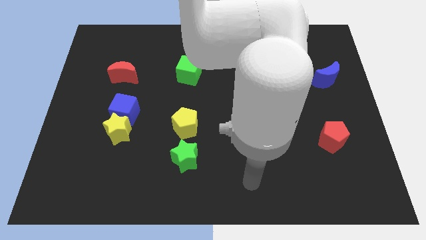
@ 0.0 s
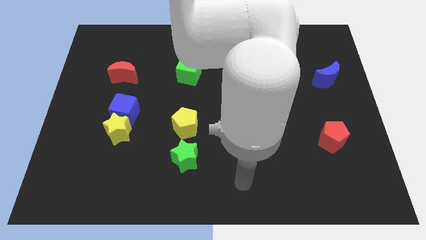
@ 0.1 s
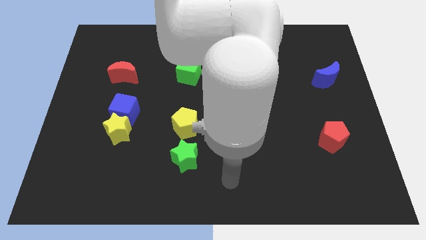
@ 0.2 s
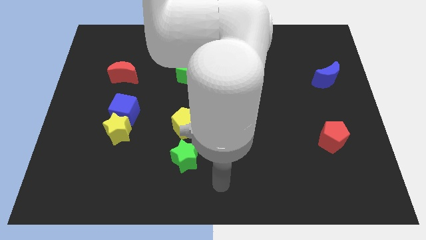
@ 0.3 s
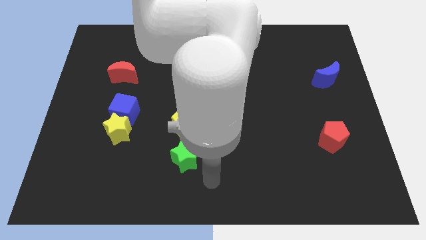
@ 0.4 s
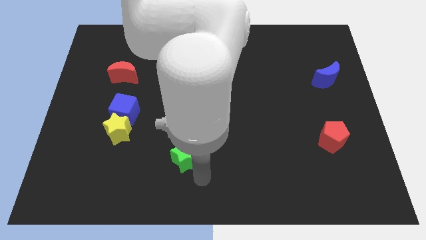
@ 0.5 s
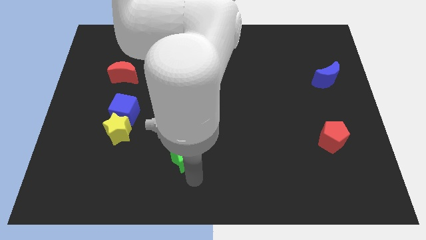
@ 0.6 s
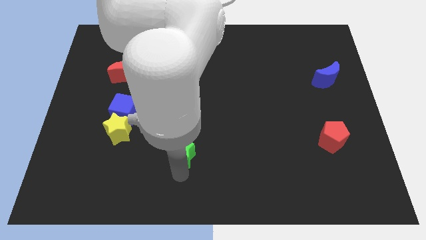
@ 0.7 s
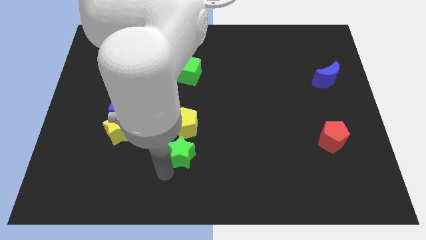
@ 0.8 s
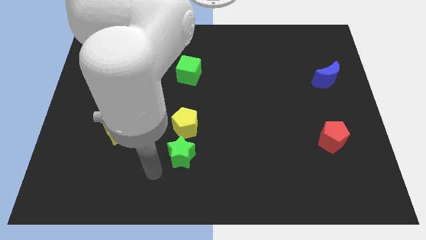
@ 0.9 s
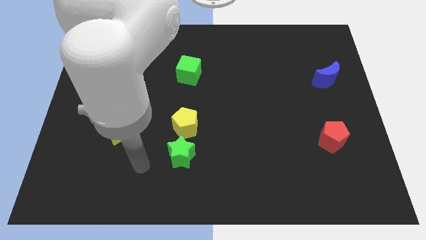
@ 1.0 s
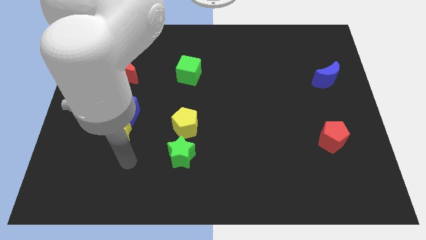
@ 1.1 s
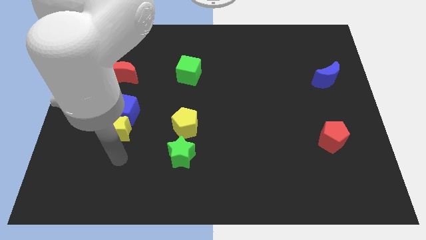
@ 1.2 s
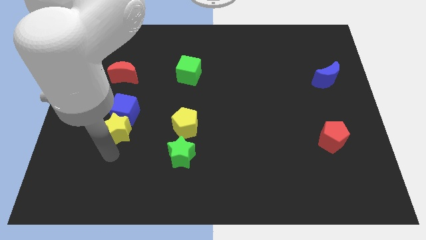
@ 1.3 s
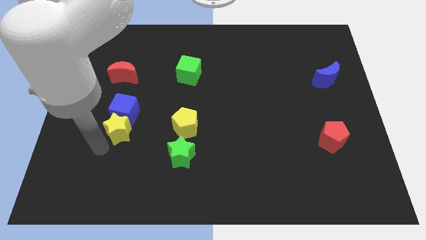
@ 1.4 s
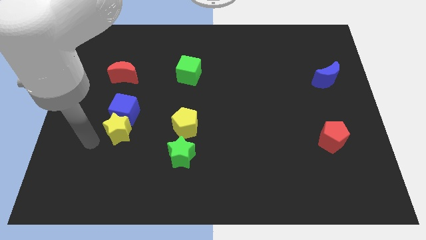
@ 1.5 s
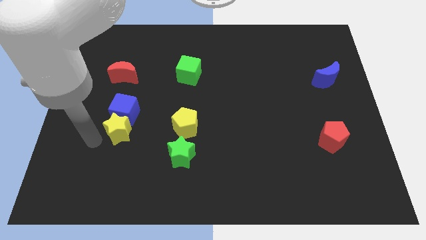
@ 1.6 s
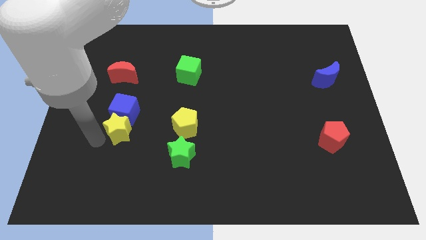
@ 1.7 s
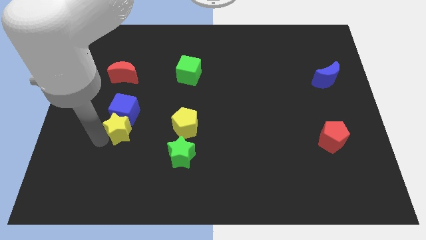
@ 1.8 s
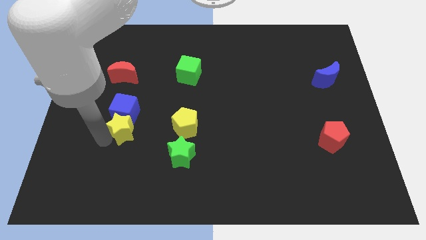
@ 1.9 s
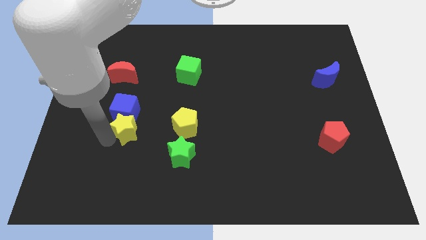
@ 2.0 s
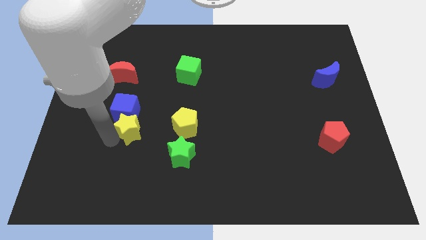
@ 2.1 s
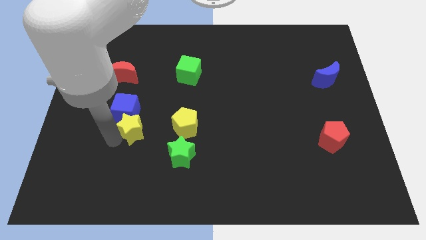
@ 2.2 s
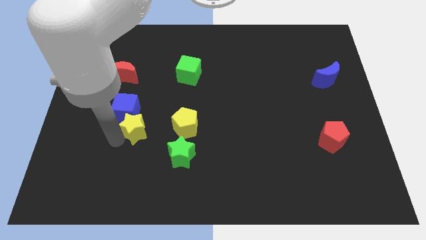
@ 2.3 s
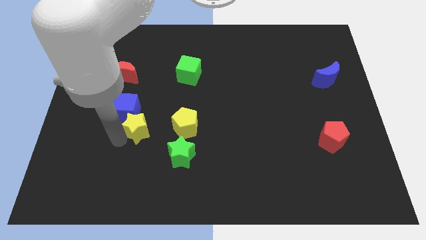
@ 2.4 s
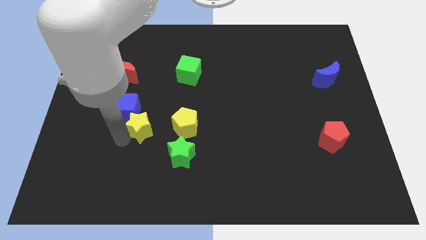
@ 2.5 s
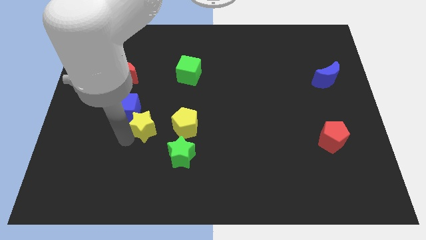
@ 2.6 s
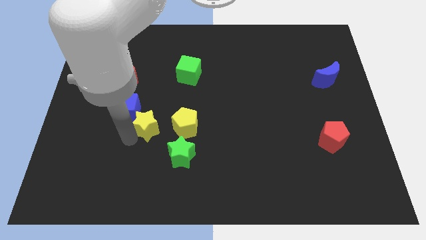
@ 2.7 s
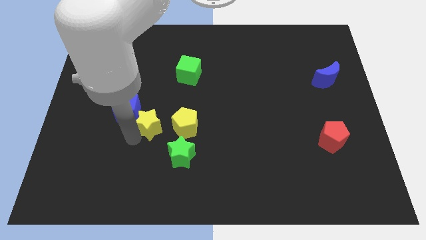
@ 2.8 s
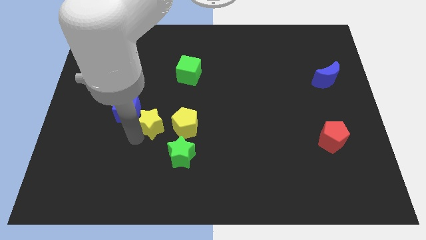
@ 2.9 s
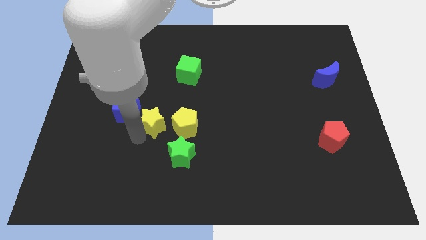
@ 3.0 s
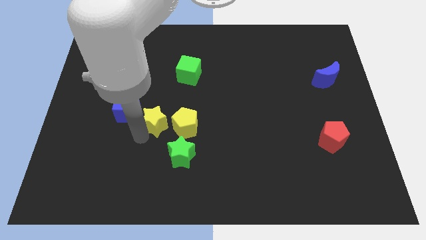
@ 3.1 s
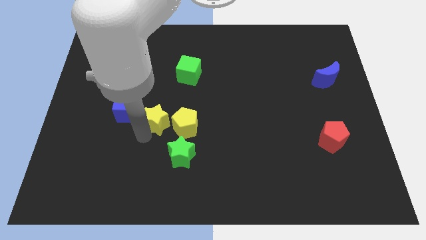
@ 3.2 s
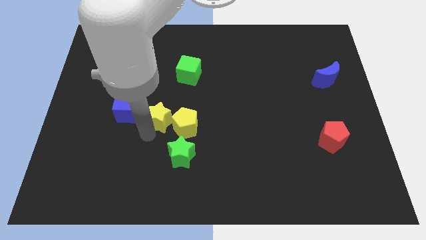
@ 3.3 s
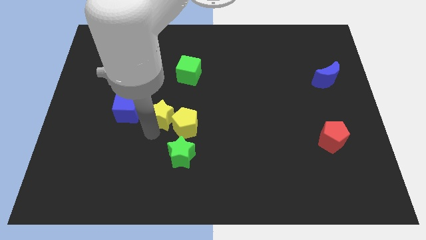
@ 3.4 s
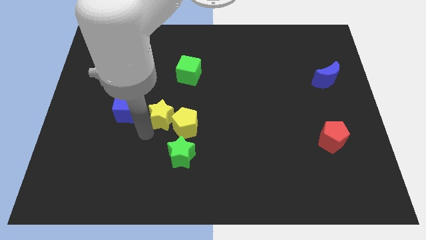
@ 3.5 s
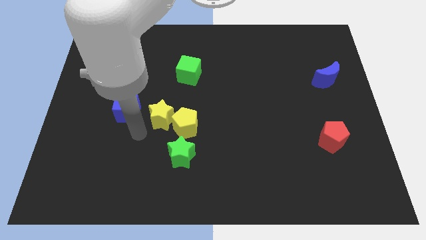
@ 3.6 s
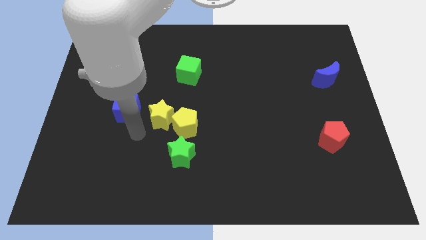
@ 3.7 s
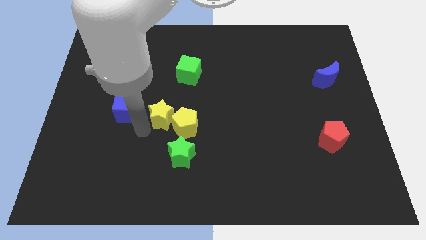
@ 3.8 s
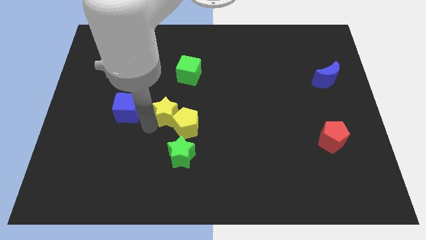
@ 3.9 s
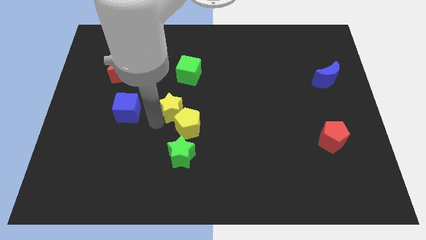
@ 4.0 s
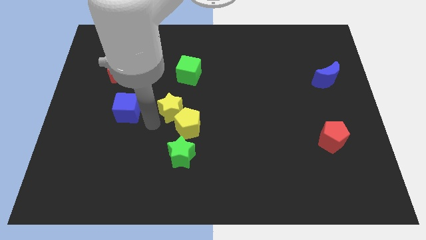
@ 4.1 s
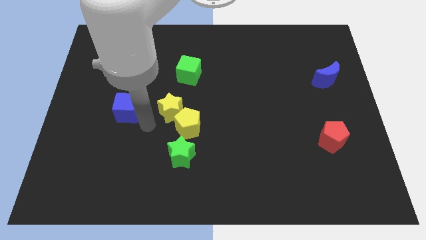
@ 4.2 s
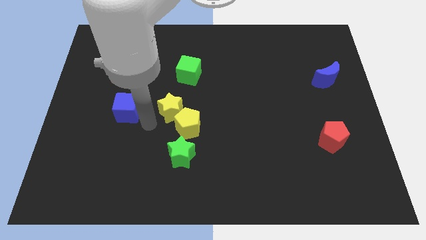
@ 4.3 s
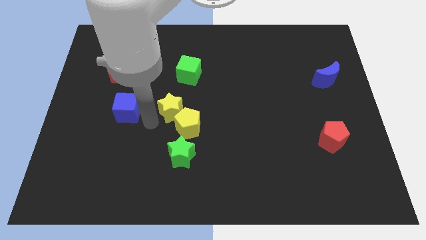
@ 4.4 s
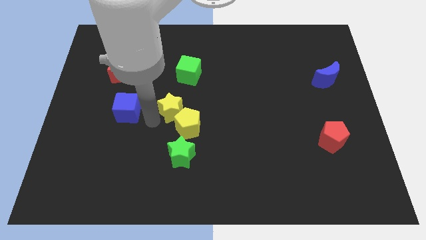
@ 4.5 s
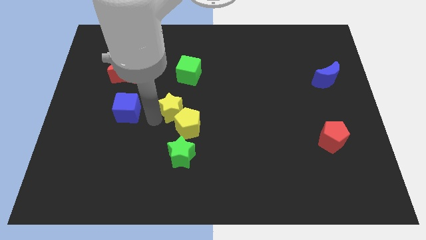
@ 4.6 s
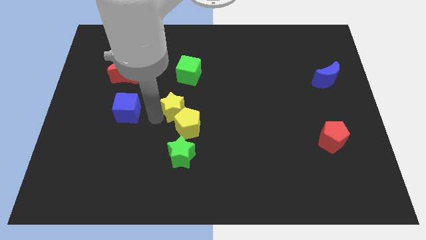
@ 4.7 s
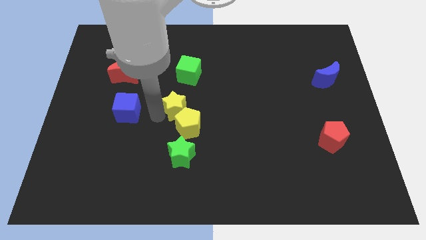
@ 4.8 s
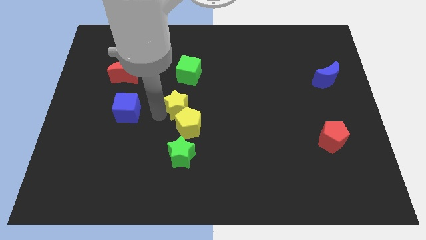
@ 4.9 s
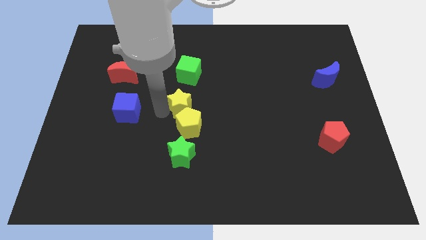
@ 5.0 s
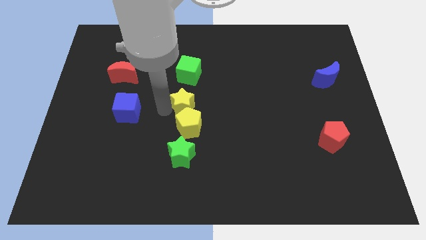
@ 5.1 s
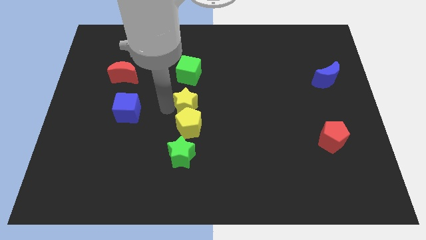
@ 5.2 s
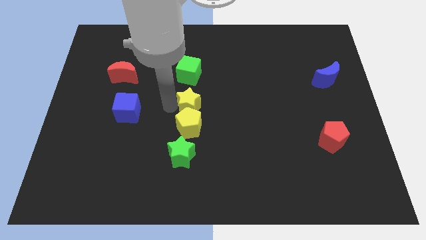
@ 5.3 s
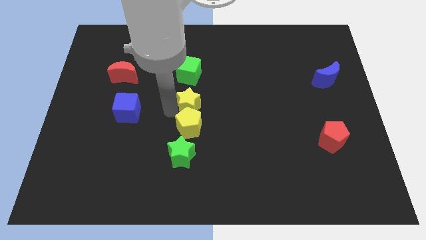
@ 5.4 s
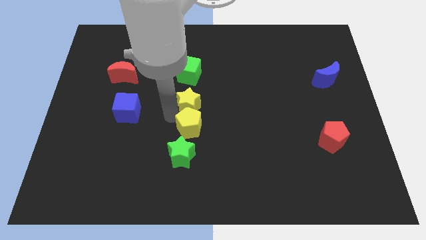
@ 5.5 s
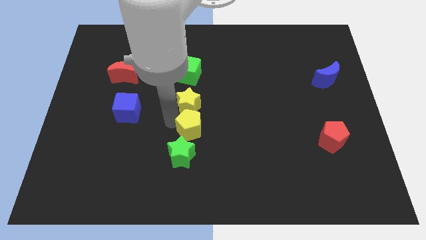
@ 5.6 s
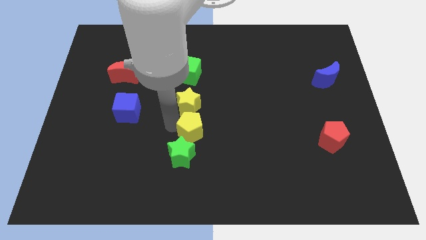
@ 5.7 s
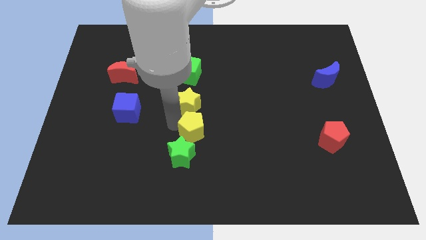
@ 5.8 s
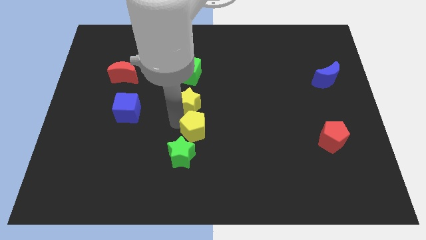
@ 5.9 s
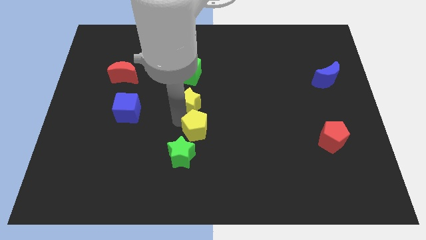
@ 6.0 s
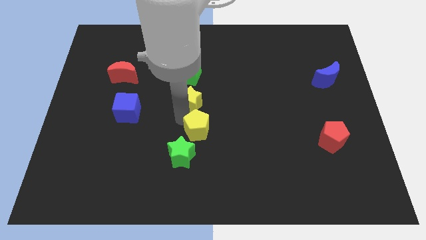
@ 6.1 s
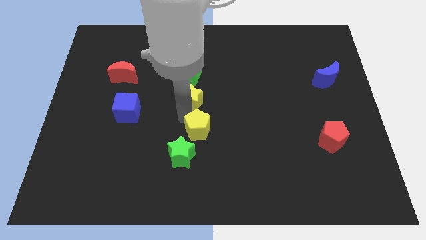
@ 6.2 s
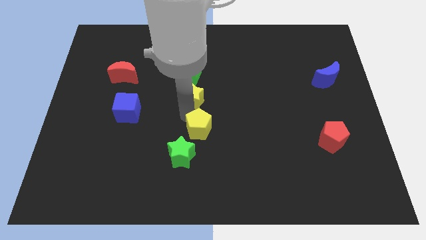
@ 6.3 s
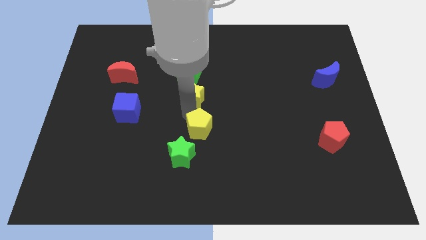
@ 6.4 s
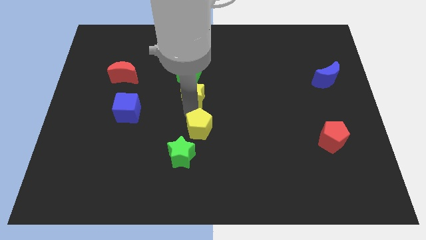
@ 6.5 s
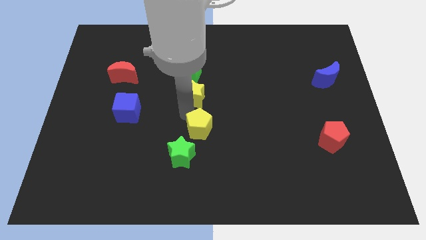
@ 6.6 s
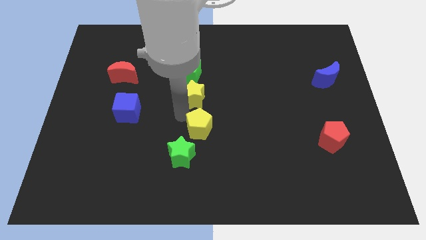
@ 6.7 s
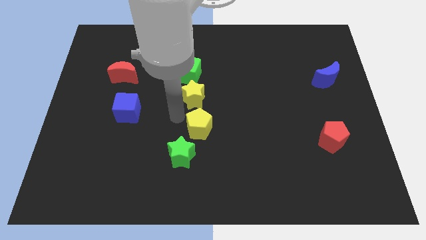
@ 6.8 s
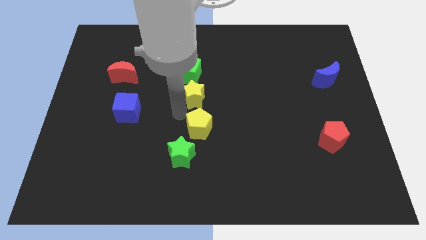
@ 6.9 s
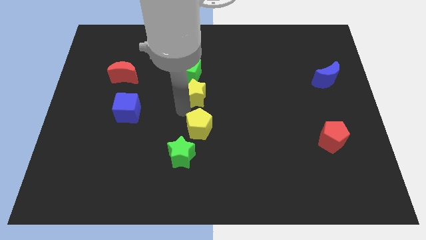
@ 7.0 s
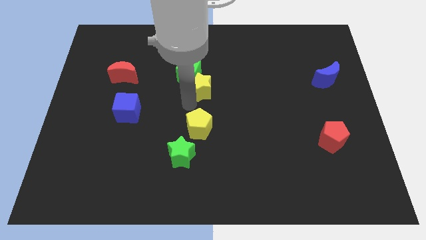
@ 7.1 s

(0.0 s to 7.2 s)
push the yellow star upwards and then right

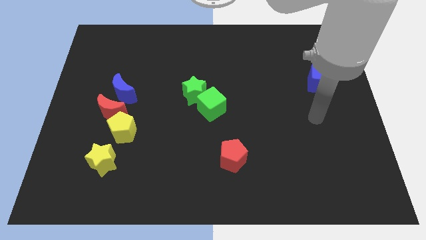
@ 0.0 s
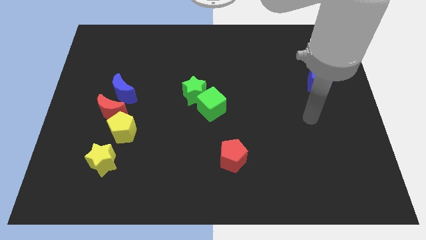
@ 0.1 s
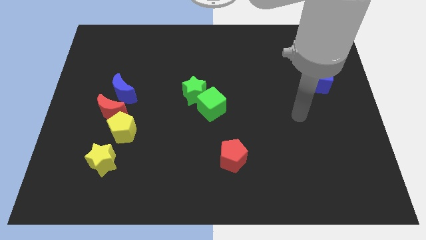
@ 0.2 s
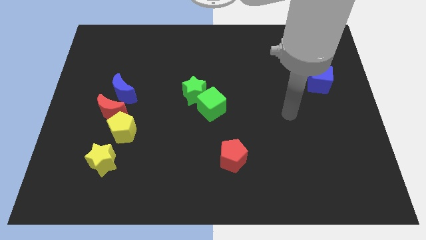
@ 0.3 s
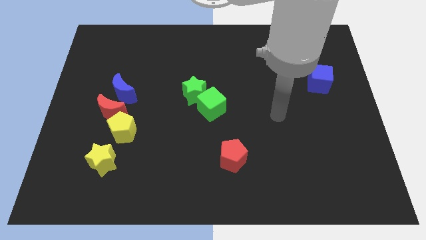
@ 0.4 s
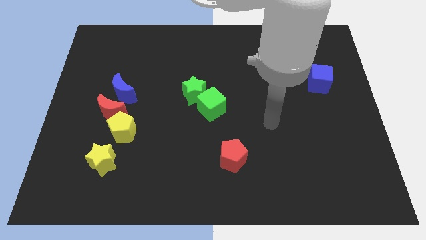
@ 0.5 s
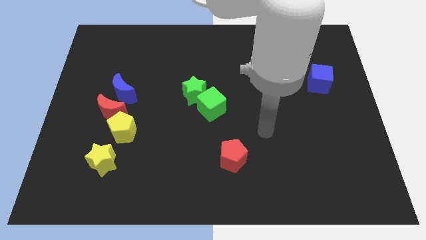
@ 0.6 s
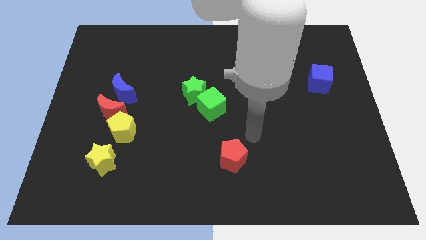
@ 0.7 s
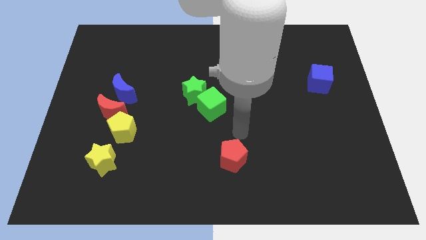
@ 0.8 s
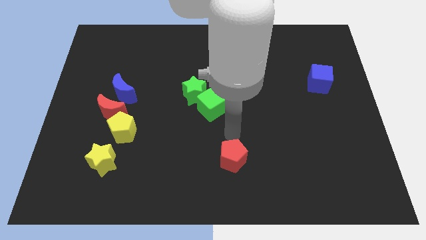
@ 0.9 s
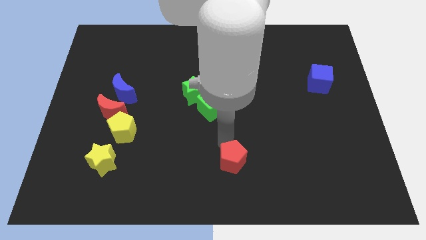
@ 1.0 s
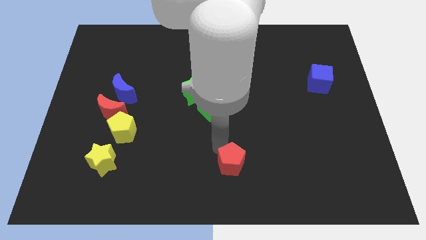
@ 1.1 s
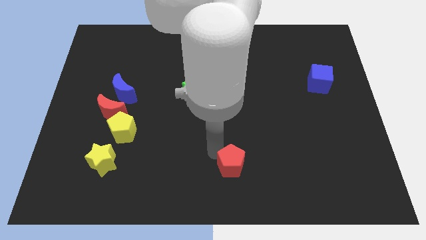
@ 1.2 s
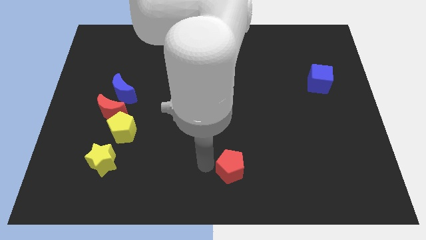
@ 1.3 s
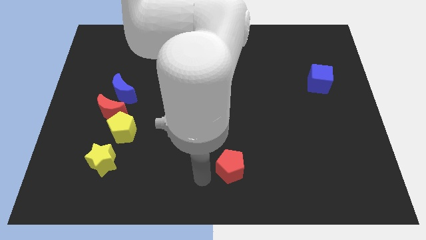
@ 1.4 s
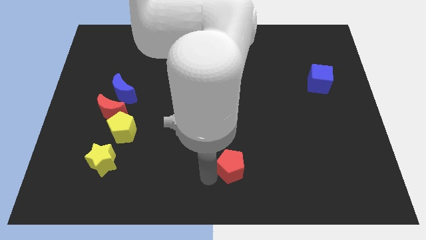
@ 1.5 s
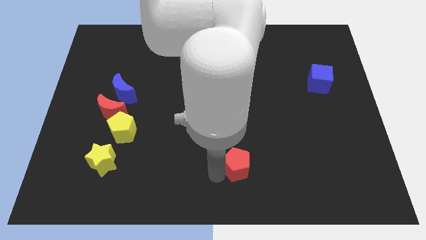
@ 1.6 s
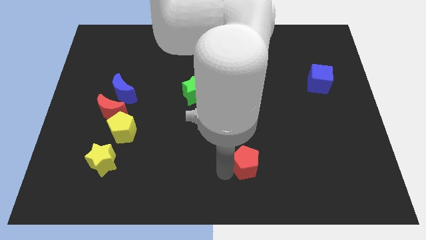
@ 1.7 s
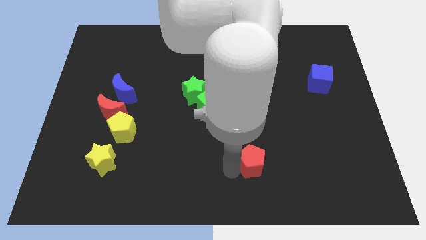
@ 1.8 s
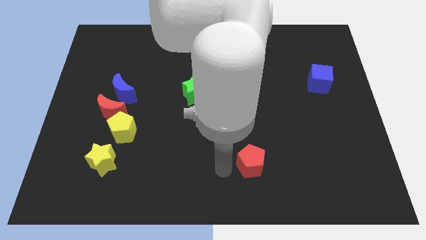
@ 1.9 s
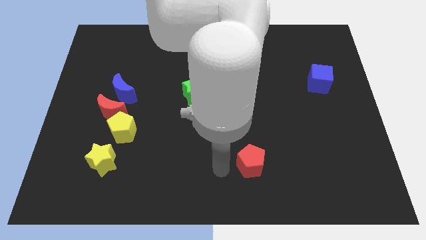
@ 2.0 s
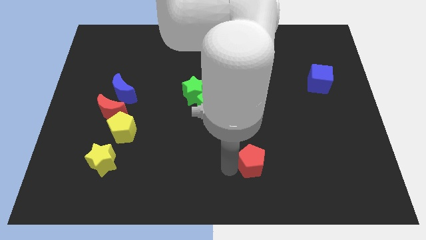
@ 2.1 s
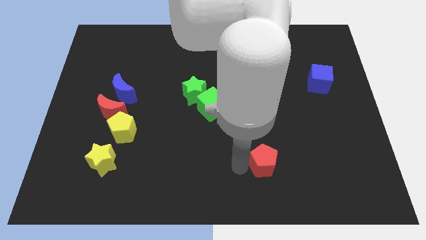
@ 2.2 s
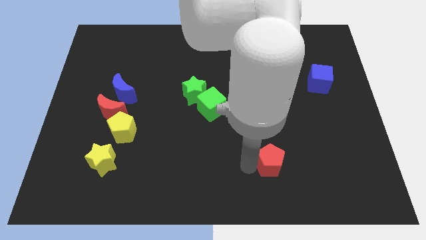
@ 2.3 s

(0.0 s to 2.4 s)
push the red pentagon to the right slightly
